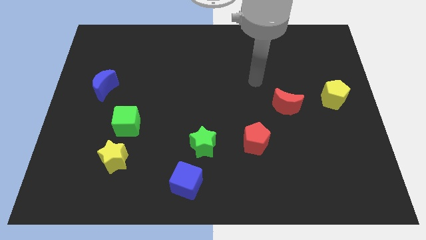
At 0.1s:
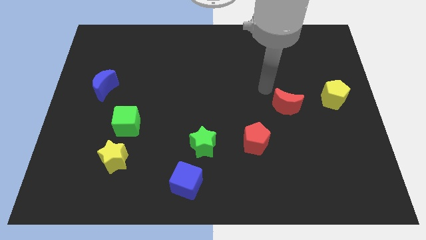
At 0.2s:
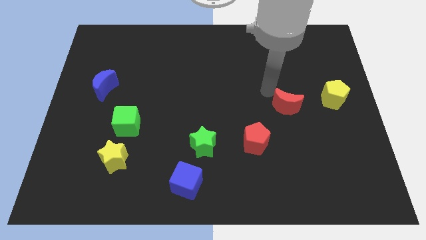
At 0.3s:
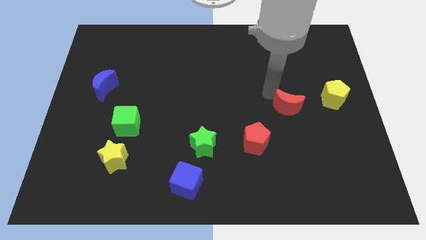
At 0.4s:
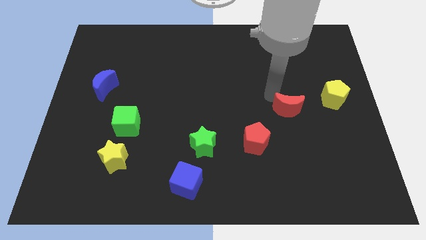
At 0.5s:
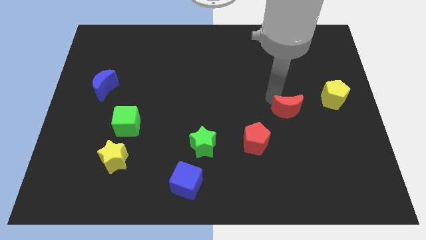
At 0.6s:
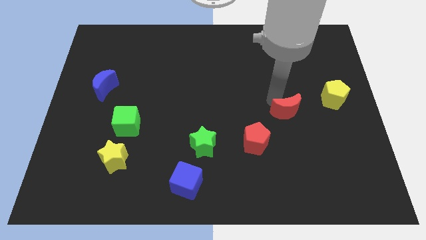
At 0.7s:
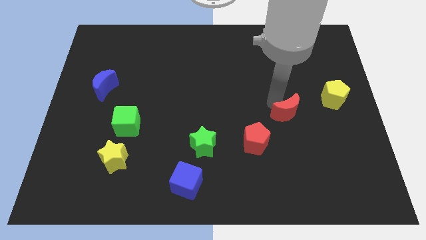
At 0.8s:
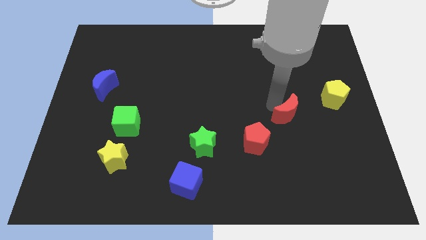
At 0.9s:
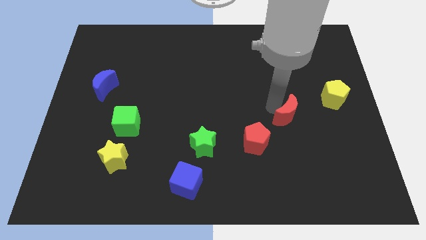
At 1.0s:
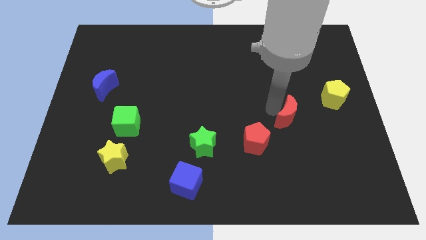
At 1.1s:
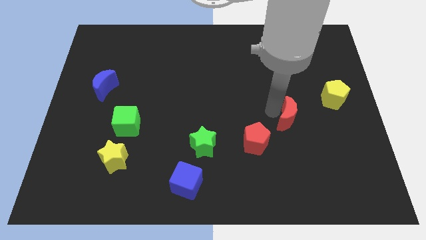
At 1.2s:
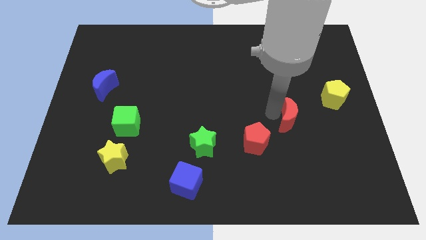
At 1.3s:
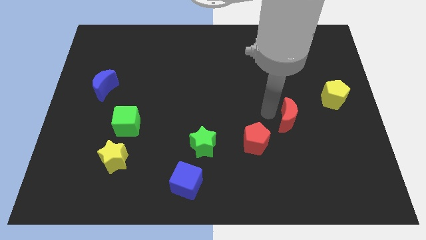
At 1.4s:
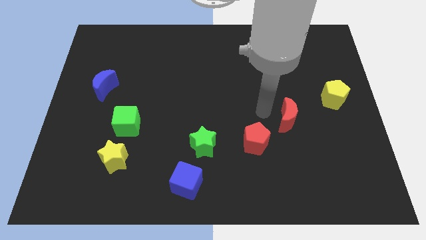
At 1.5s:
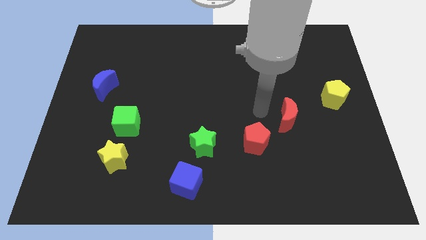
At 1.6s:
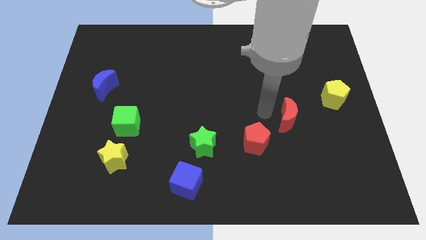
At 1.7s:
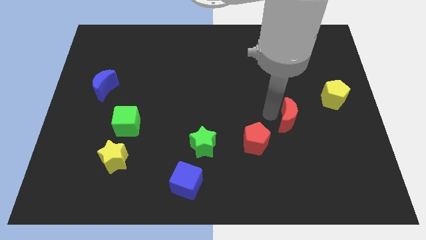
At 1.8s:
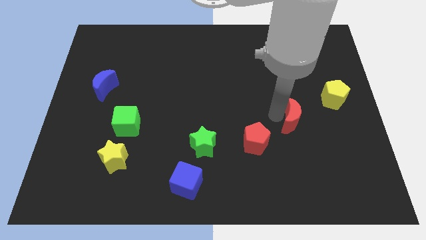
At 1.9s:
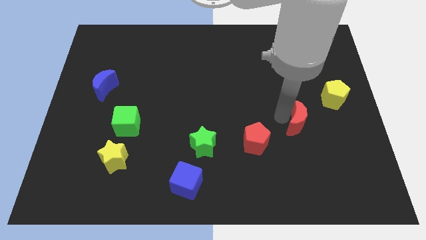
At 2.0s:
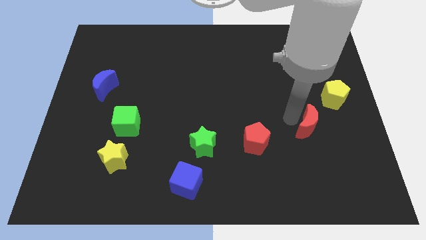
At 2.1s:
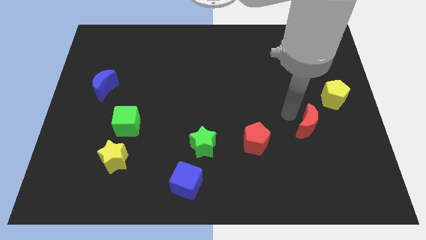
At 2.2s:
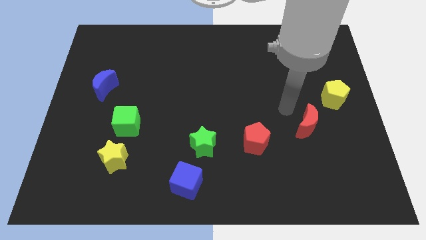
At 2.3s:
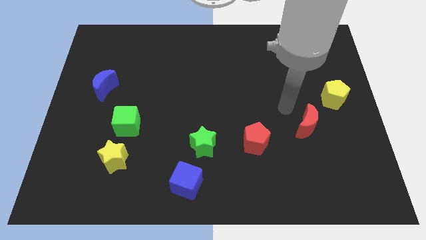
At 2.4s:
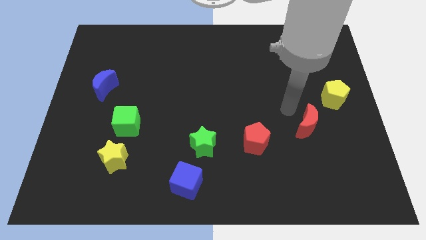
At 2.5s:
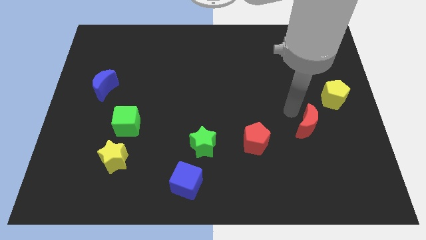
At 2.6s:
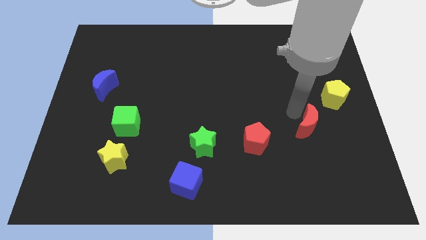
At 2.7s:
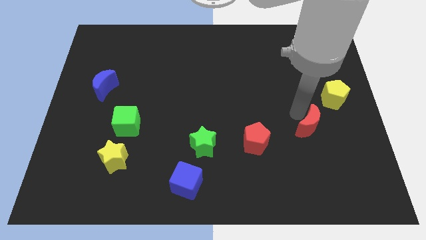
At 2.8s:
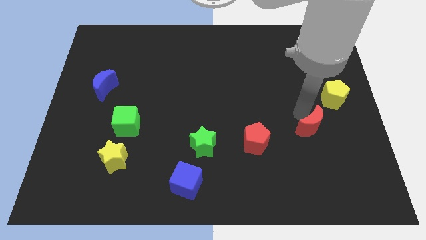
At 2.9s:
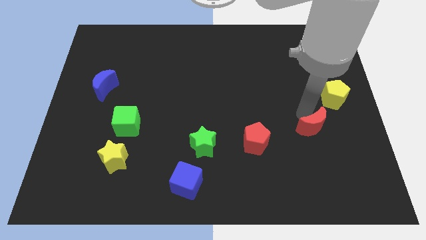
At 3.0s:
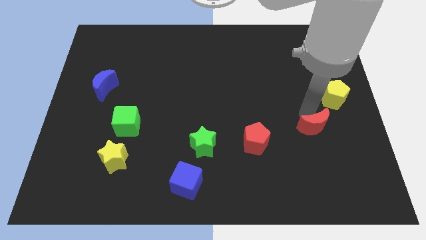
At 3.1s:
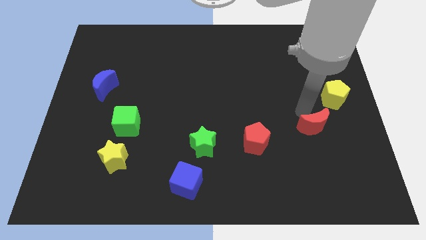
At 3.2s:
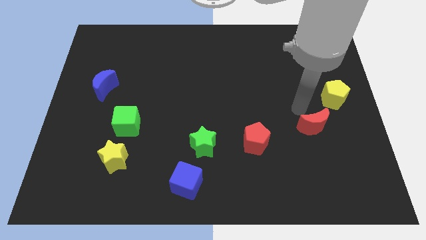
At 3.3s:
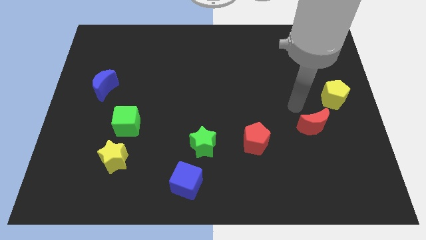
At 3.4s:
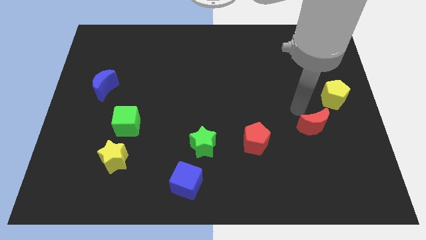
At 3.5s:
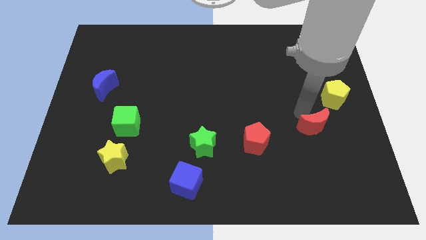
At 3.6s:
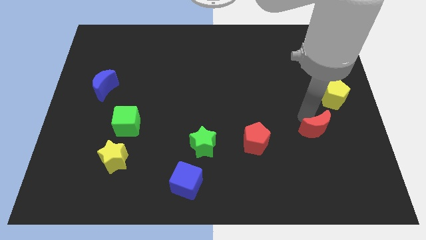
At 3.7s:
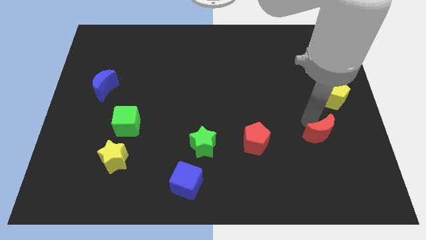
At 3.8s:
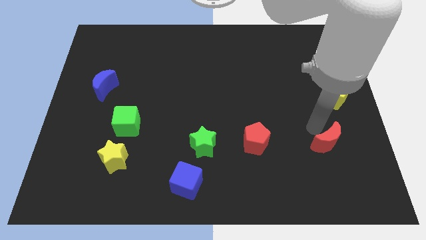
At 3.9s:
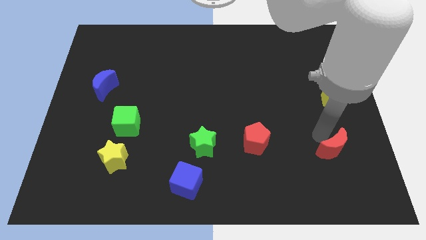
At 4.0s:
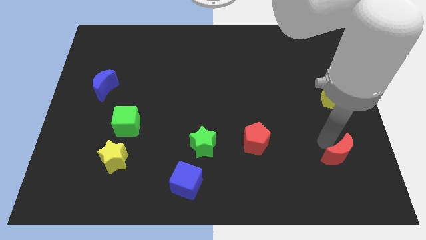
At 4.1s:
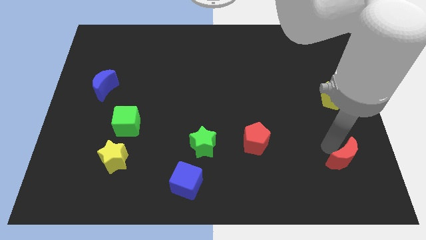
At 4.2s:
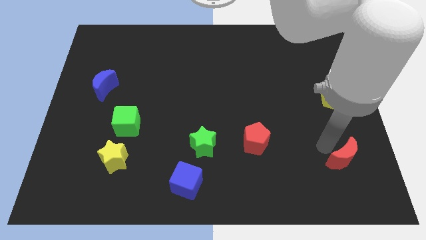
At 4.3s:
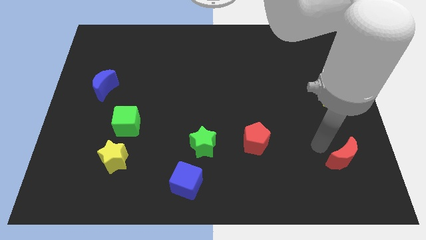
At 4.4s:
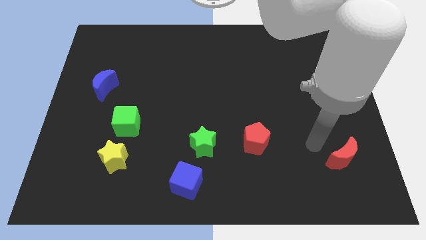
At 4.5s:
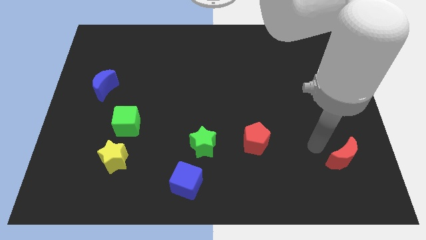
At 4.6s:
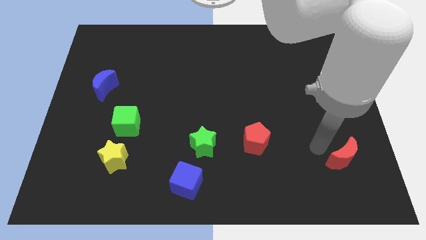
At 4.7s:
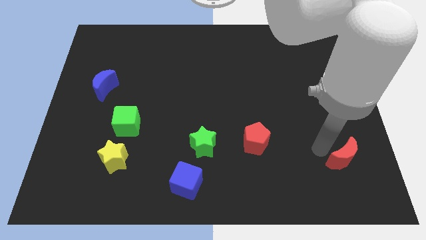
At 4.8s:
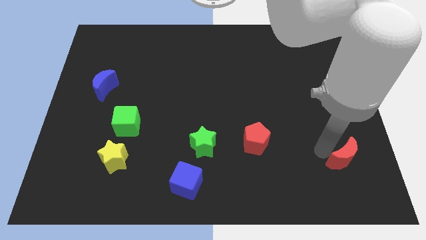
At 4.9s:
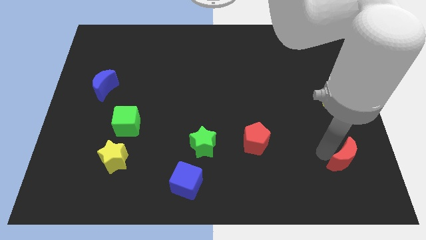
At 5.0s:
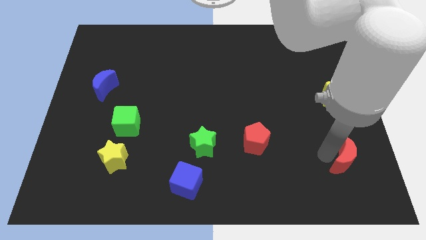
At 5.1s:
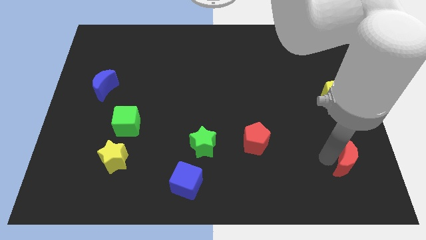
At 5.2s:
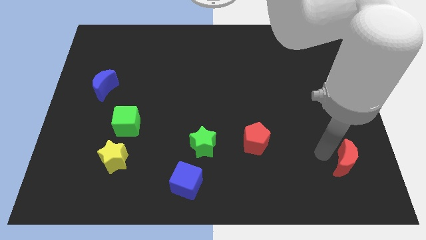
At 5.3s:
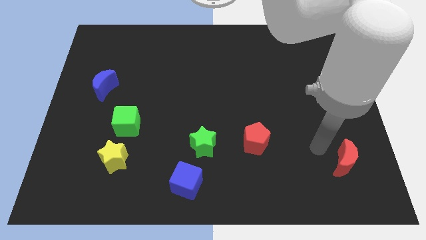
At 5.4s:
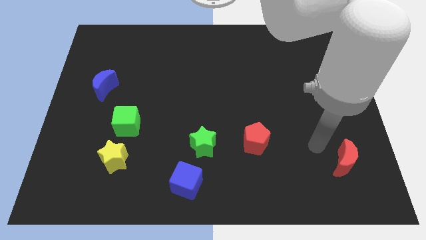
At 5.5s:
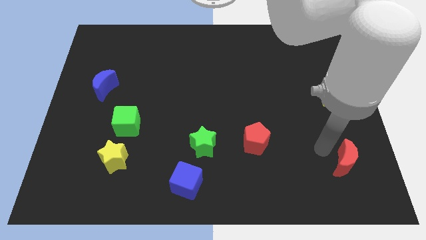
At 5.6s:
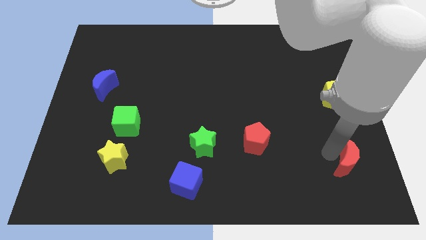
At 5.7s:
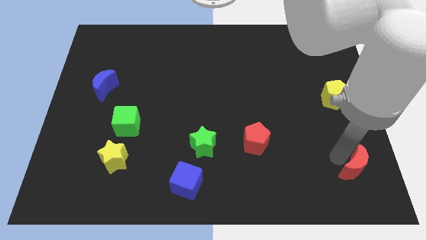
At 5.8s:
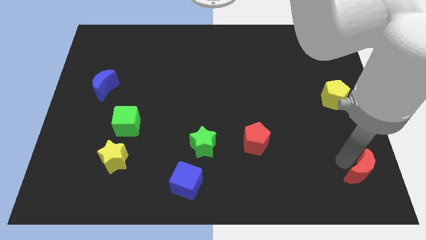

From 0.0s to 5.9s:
push the red moon to the bottom right

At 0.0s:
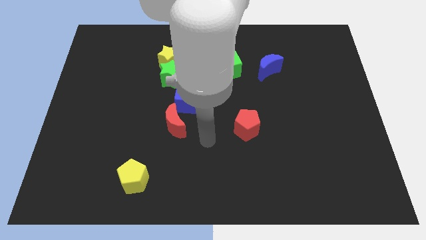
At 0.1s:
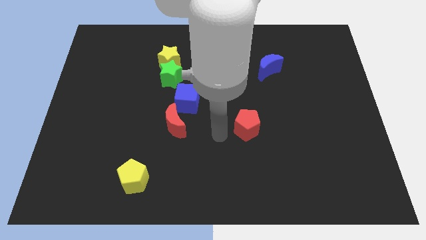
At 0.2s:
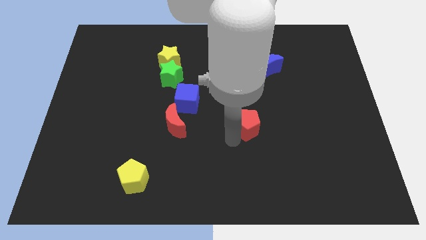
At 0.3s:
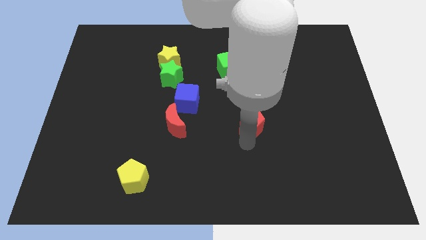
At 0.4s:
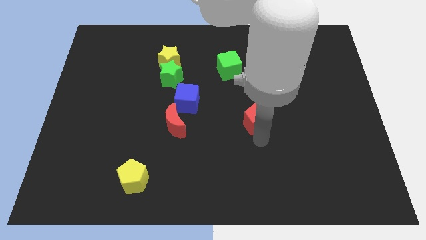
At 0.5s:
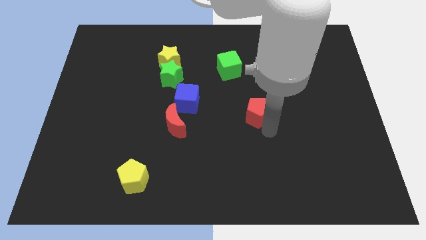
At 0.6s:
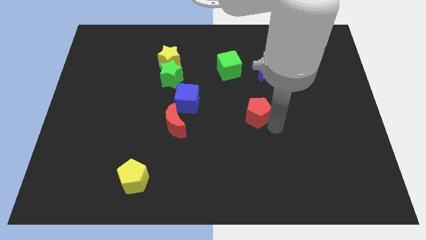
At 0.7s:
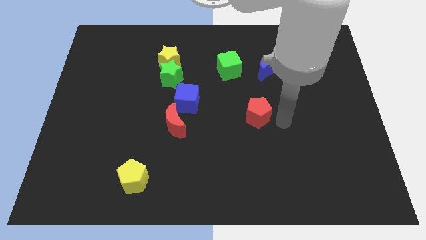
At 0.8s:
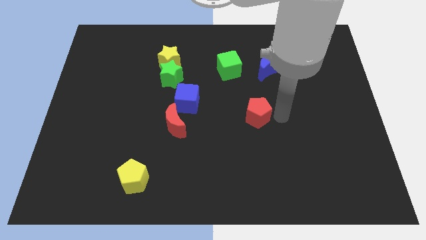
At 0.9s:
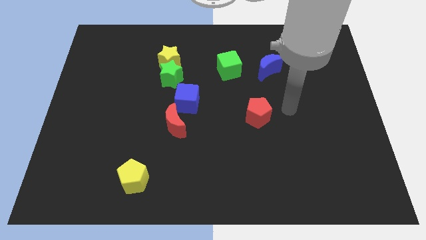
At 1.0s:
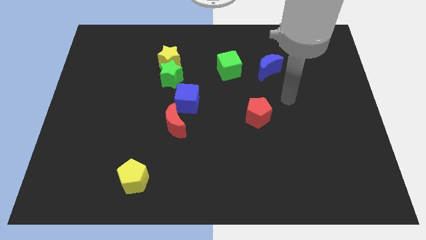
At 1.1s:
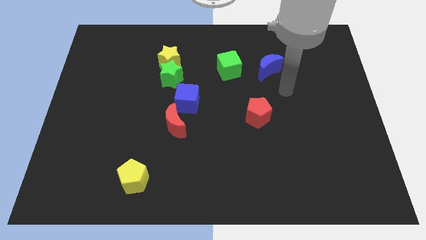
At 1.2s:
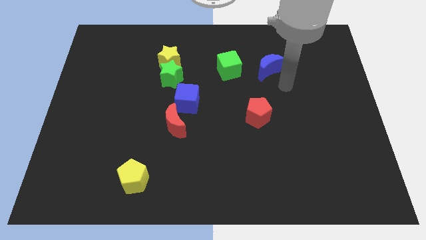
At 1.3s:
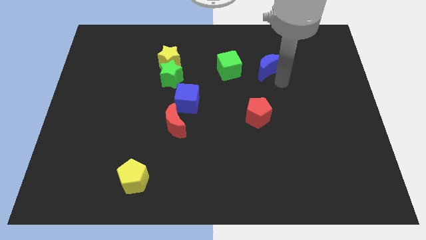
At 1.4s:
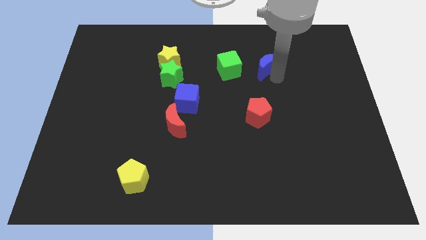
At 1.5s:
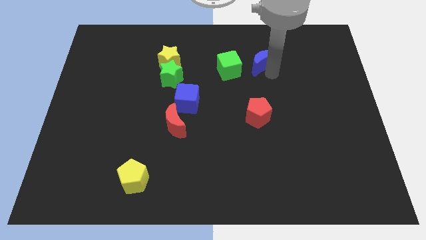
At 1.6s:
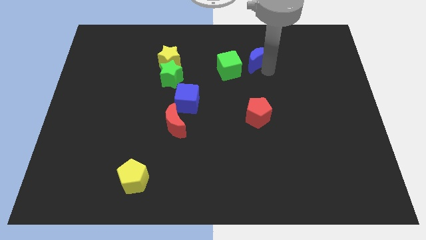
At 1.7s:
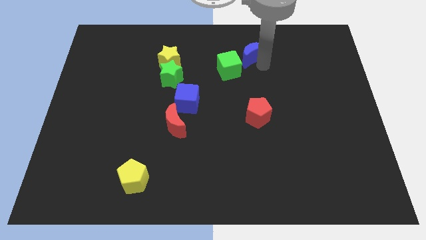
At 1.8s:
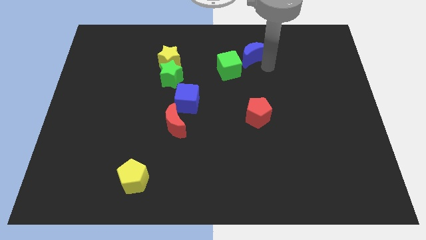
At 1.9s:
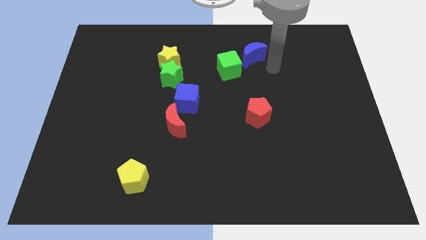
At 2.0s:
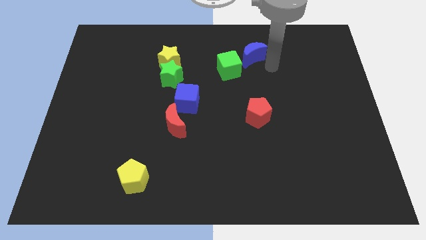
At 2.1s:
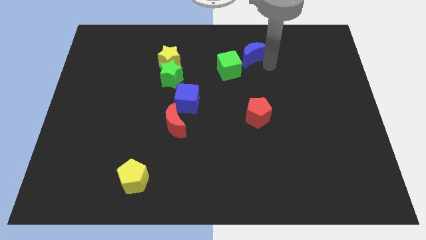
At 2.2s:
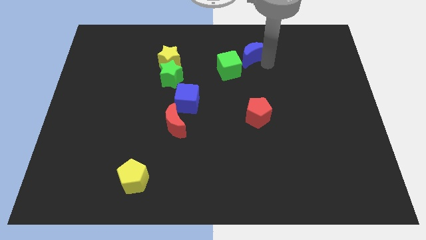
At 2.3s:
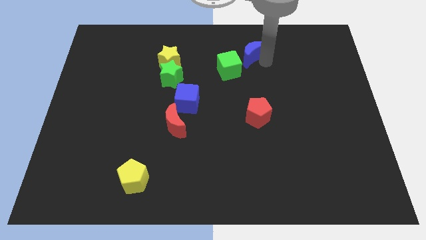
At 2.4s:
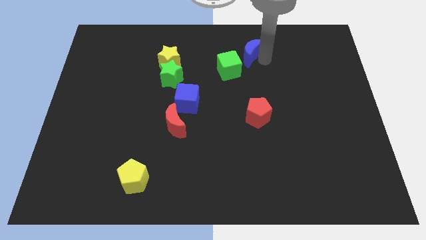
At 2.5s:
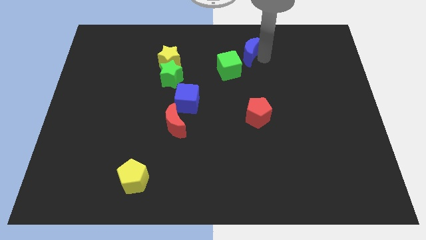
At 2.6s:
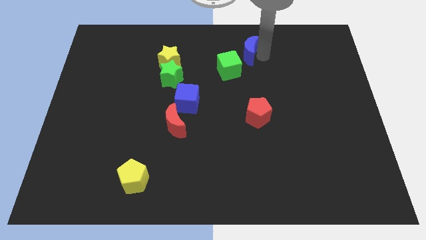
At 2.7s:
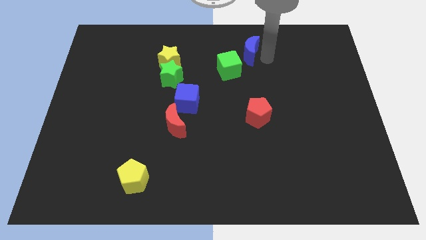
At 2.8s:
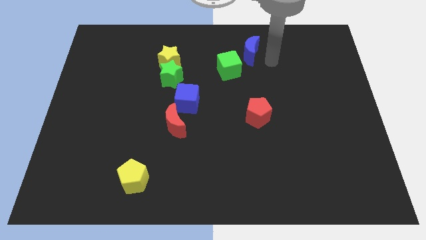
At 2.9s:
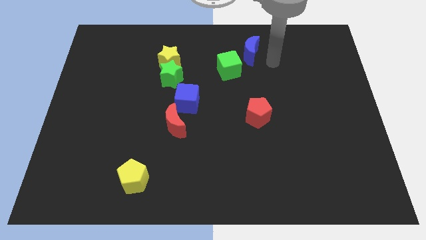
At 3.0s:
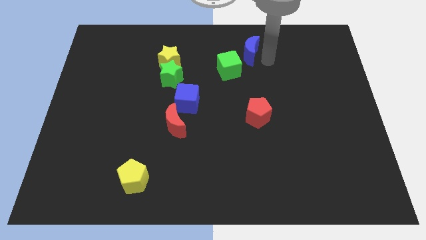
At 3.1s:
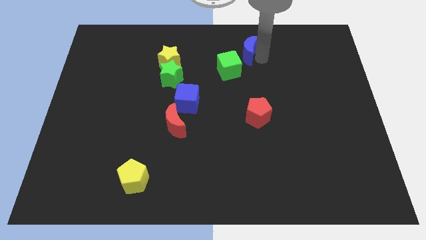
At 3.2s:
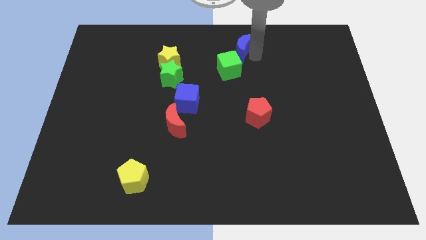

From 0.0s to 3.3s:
slide the blue moon to the towards your base
